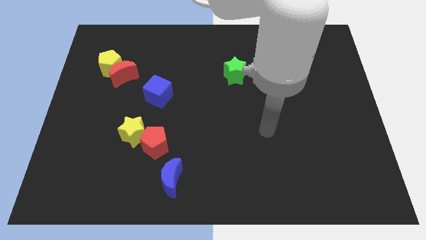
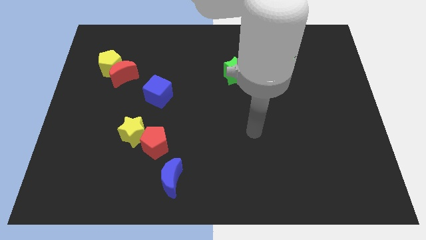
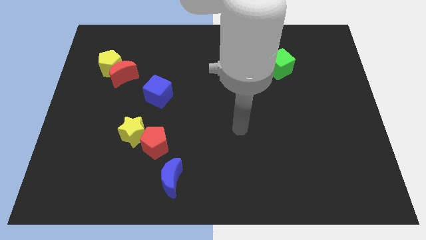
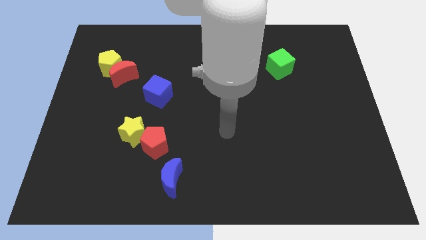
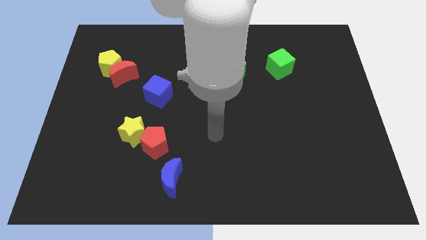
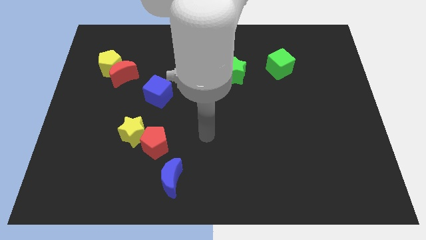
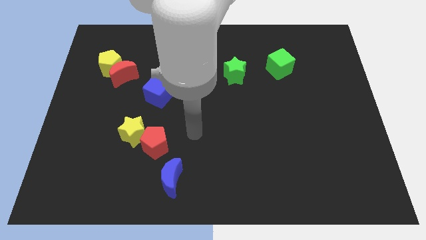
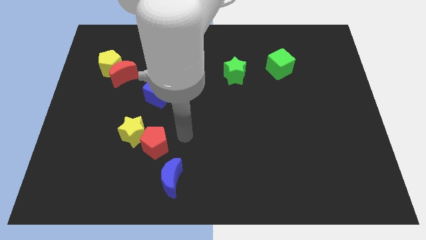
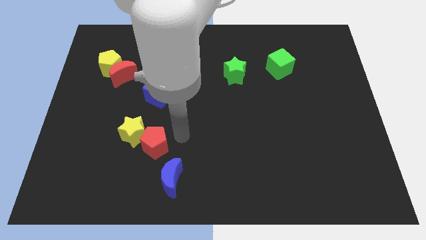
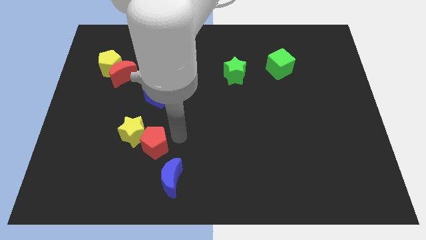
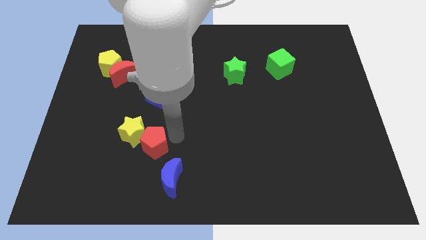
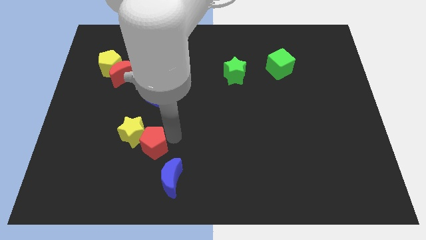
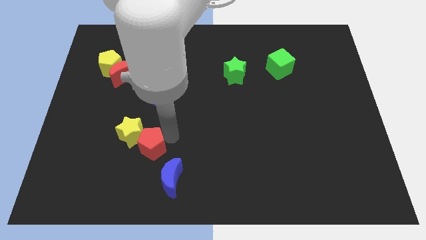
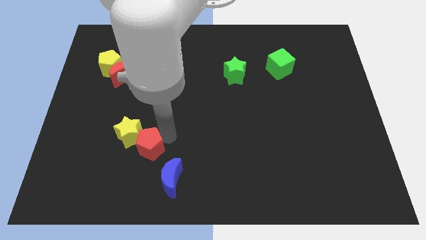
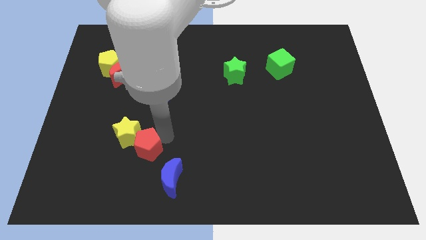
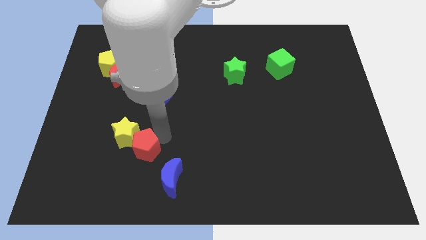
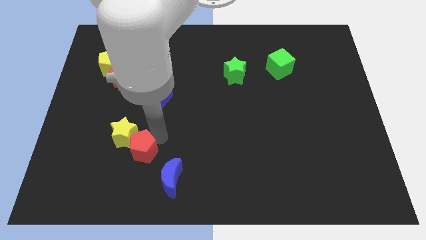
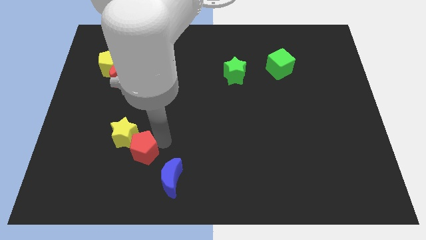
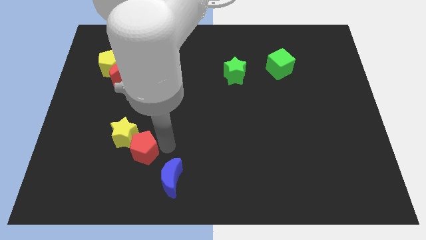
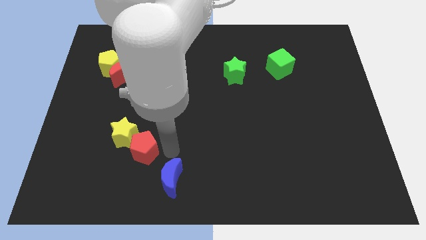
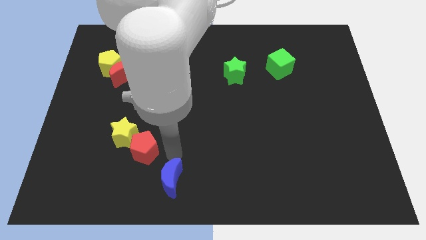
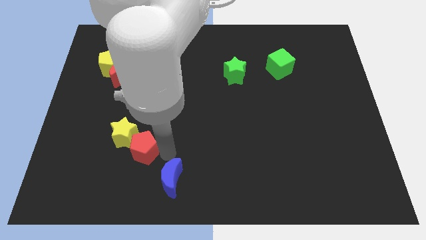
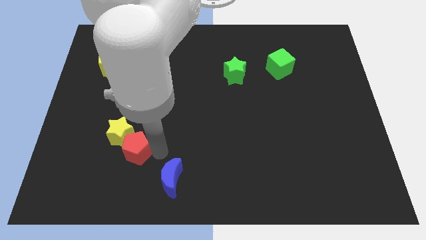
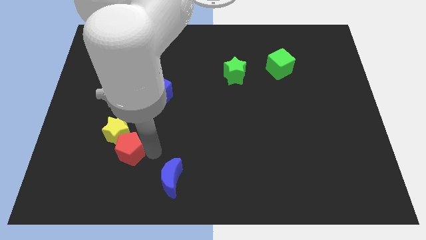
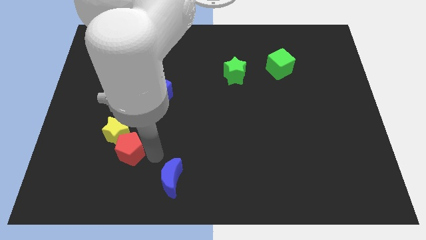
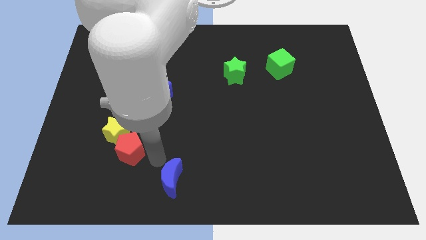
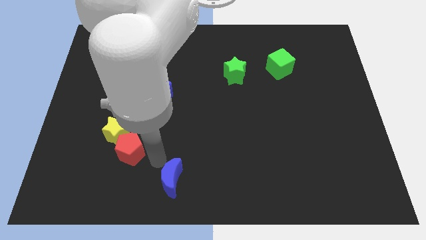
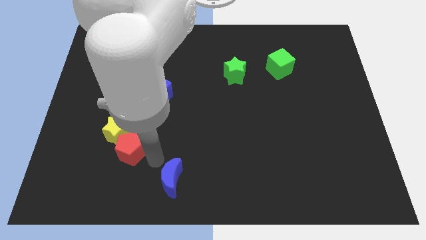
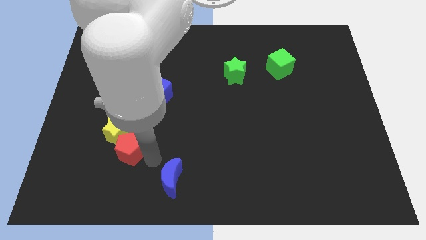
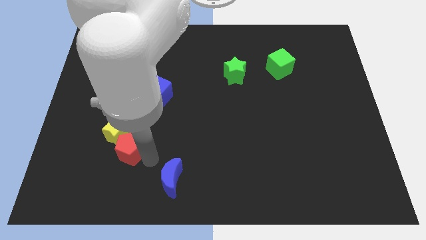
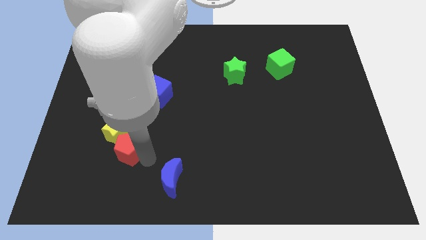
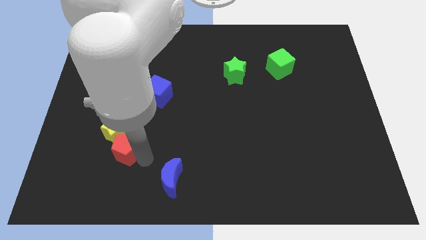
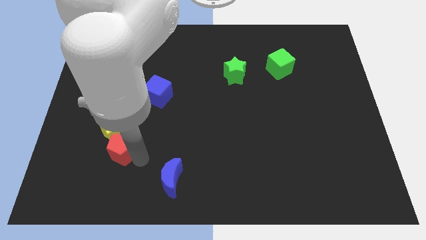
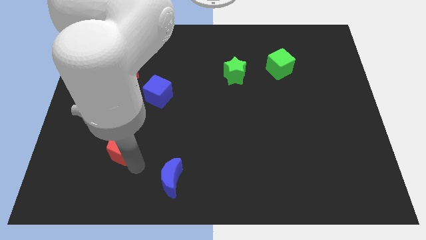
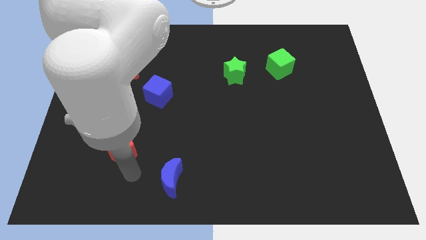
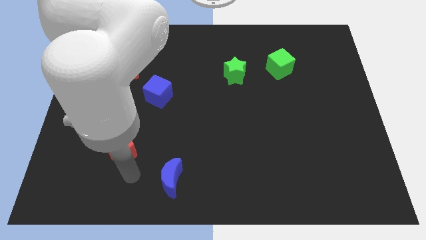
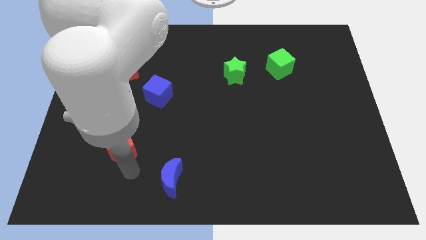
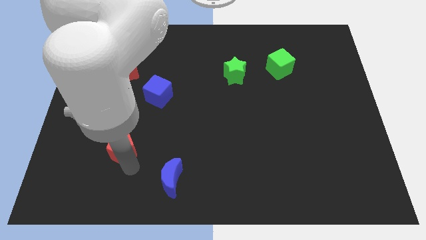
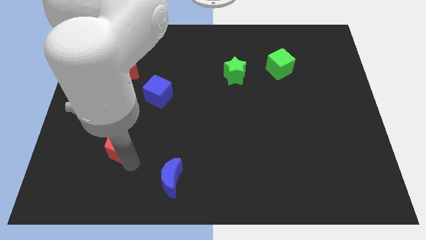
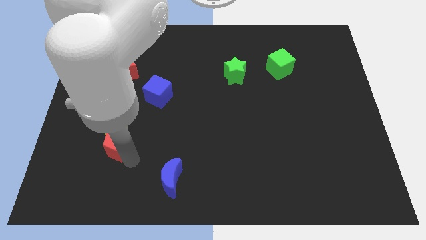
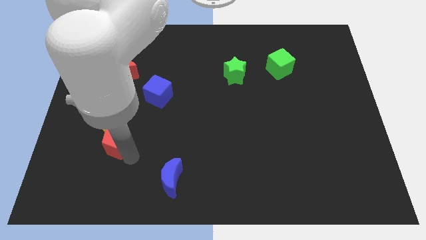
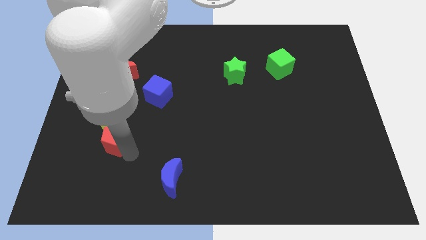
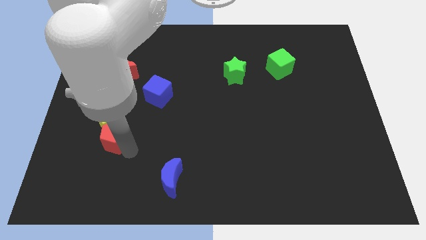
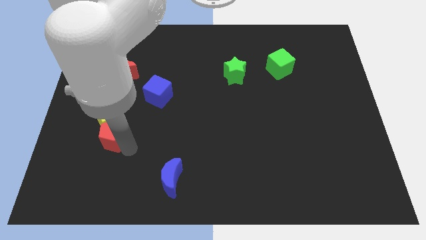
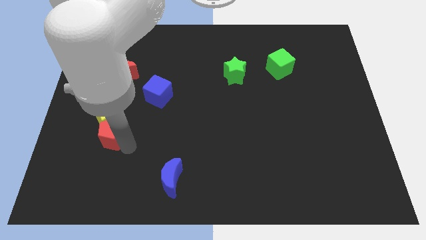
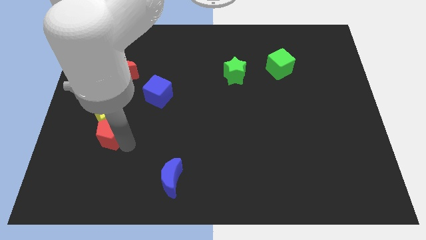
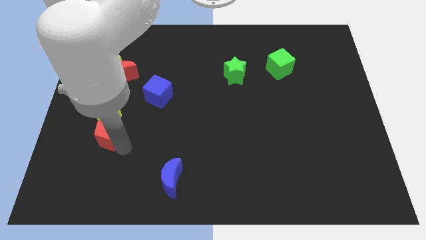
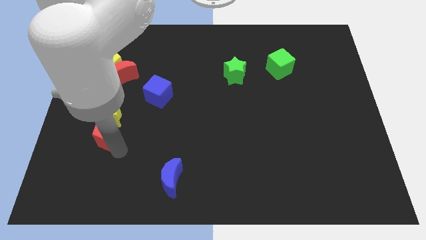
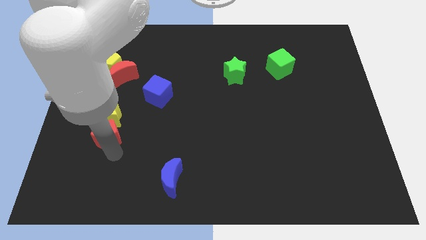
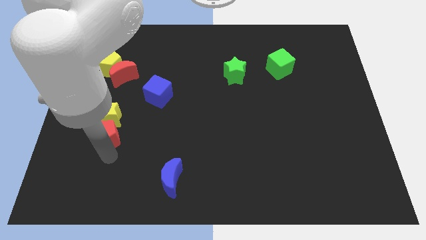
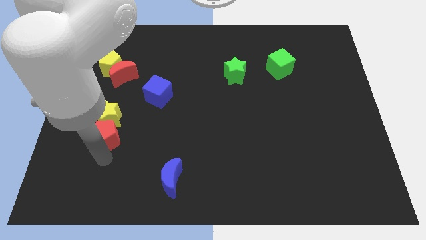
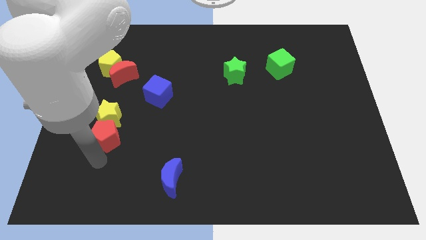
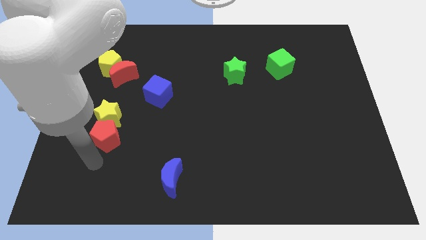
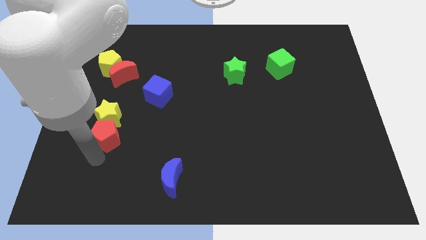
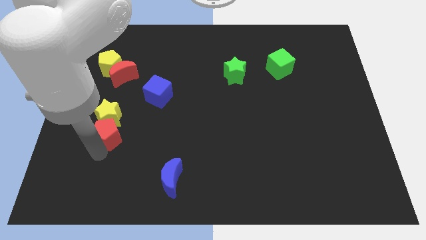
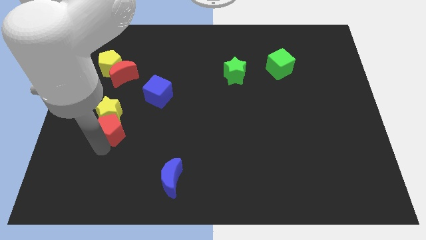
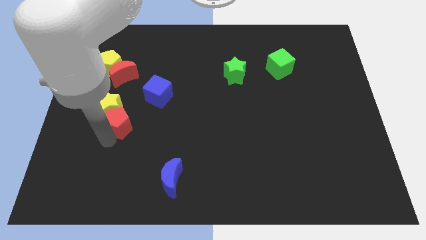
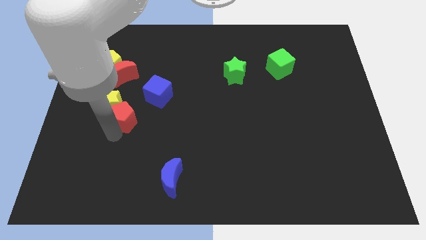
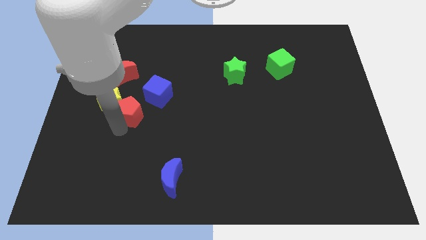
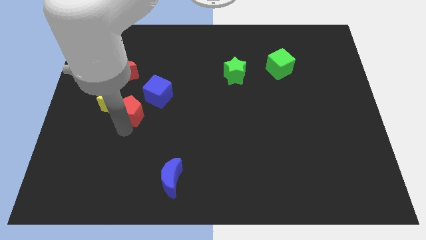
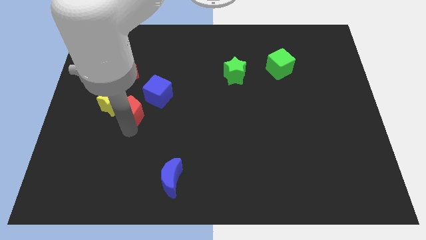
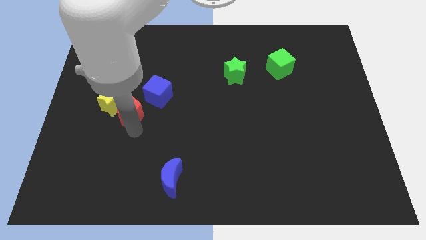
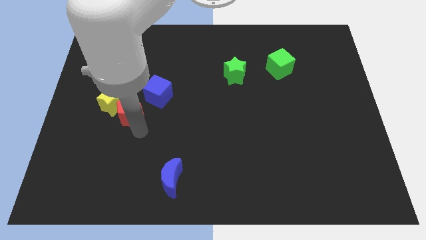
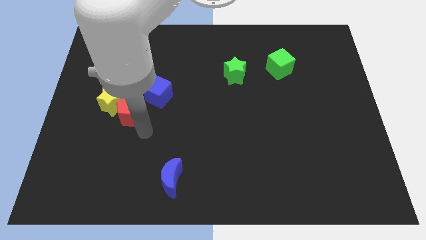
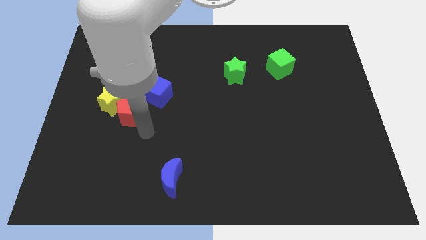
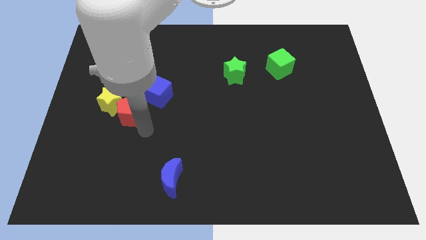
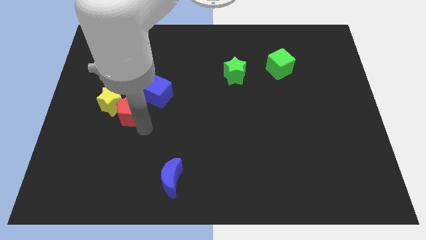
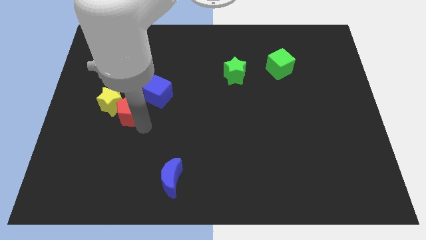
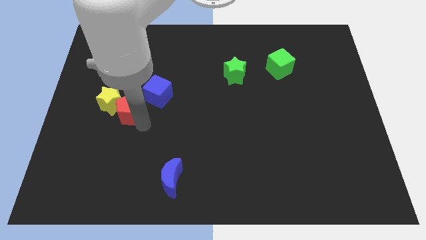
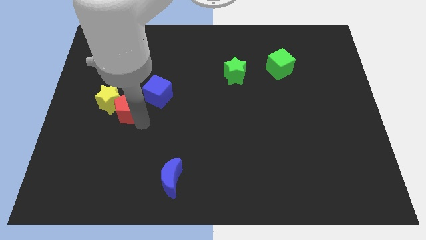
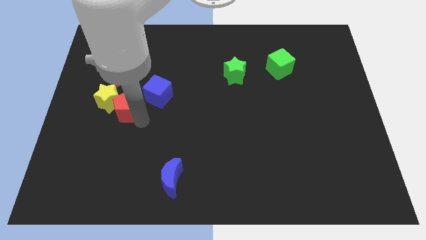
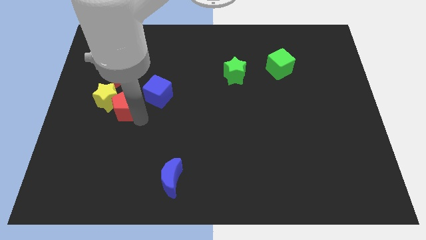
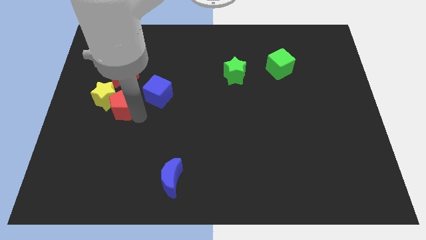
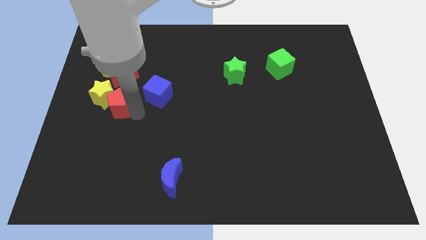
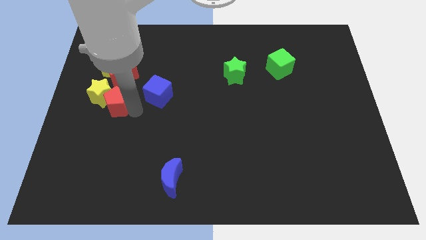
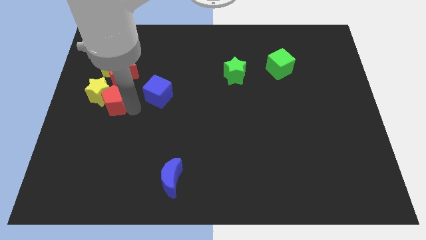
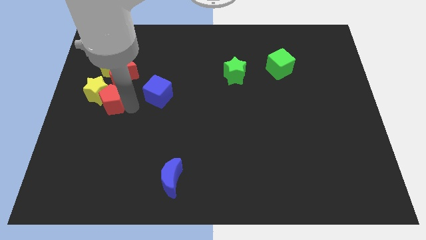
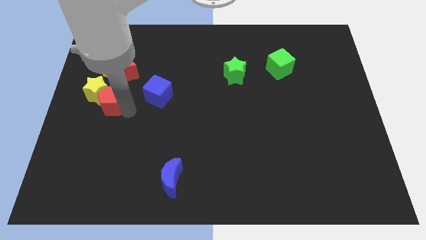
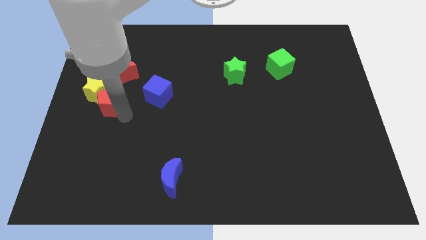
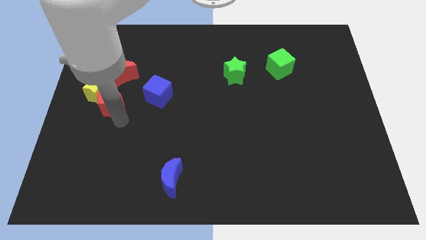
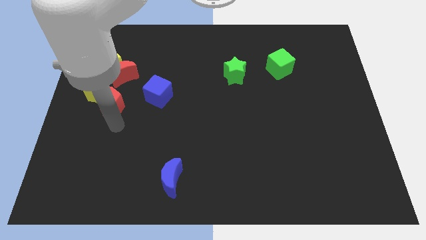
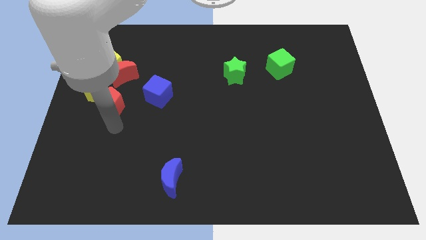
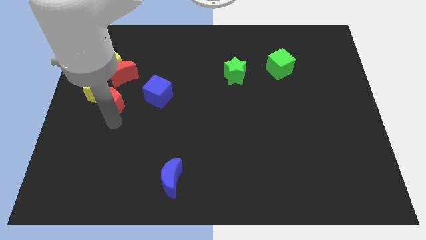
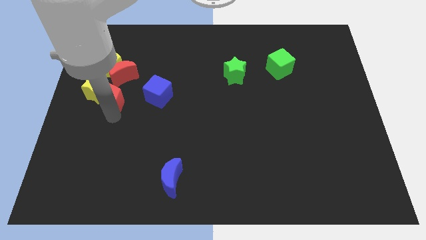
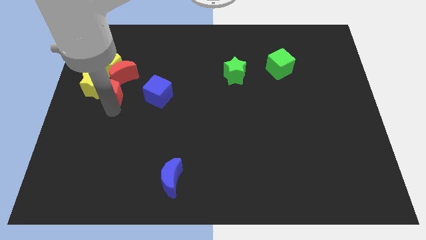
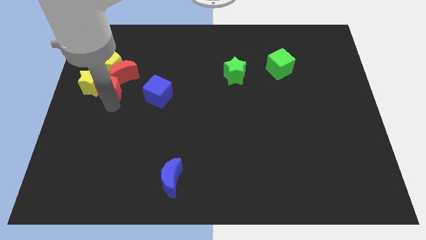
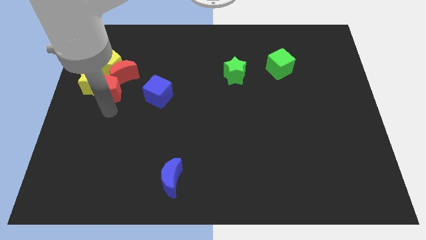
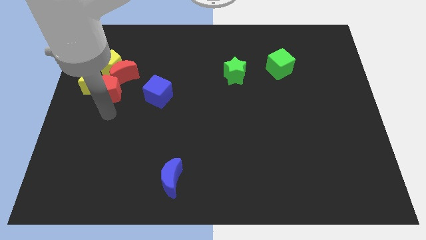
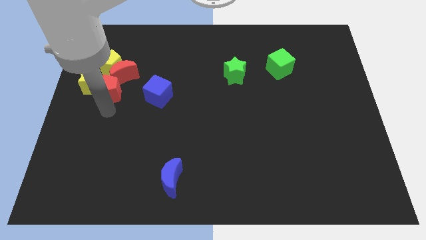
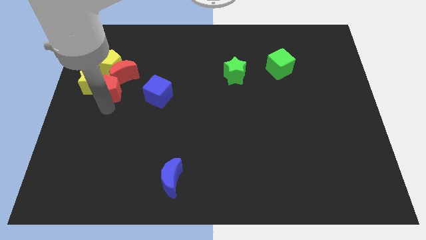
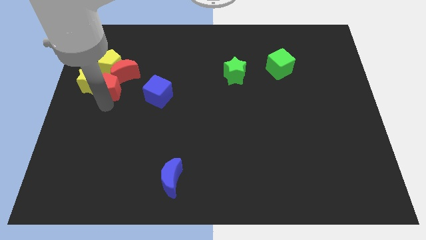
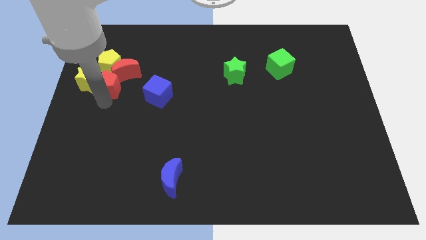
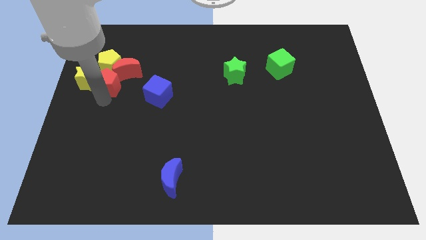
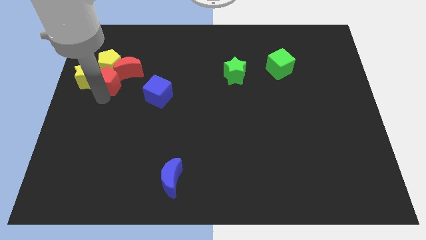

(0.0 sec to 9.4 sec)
put the red pentagon close to the yellow pentagon
